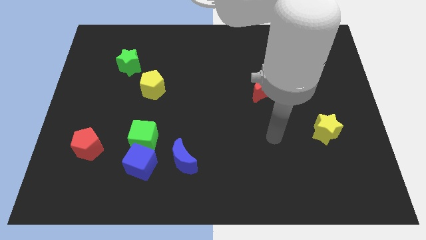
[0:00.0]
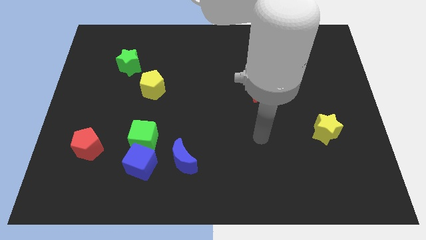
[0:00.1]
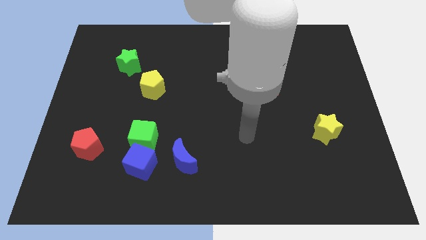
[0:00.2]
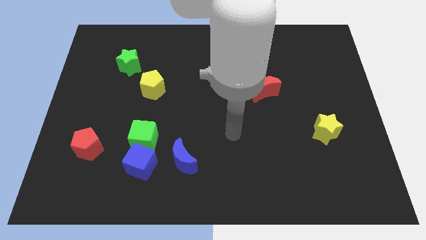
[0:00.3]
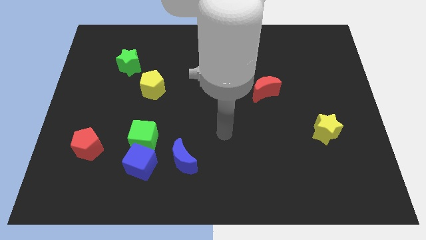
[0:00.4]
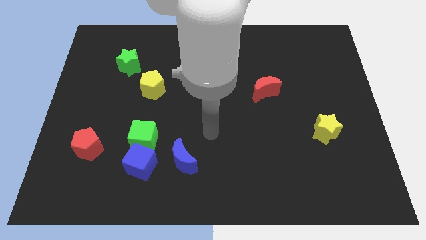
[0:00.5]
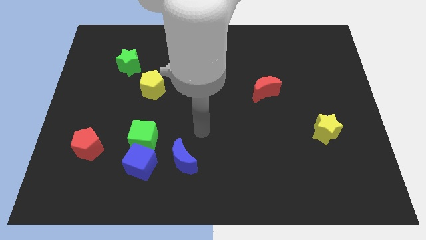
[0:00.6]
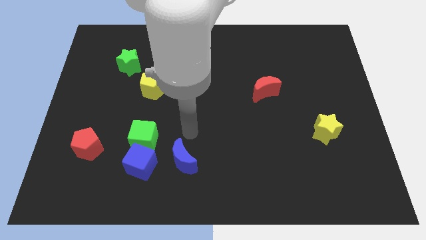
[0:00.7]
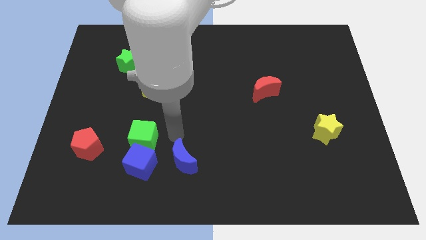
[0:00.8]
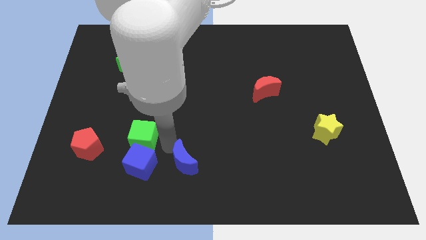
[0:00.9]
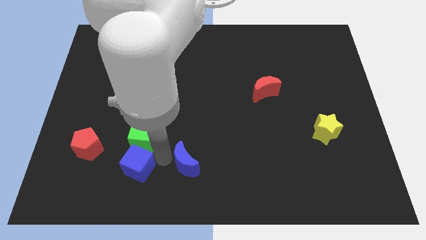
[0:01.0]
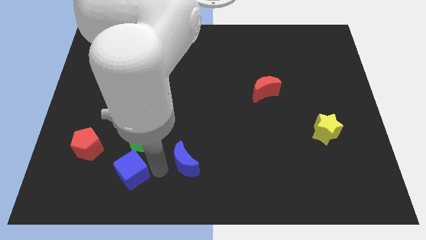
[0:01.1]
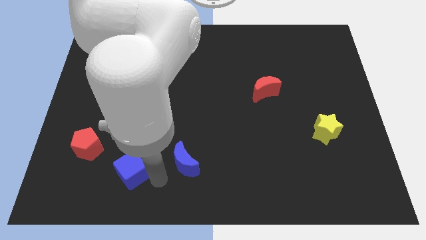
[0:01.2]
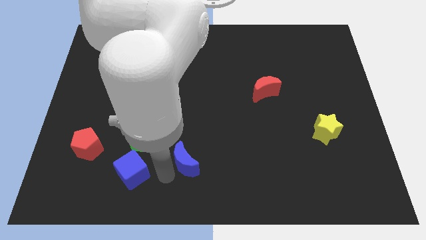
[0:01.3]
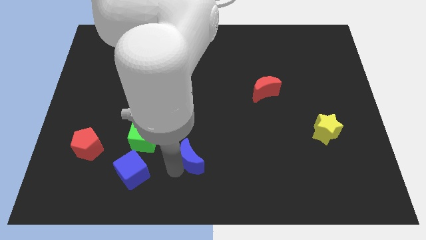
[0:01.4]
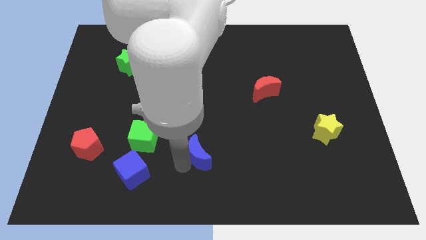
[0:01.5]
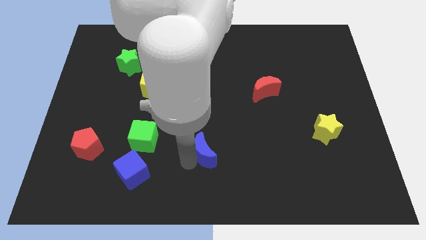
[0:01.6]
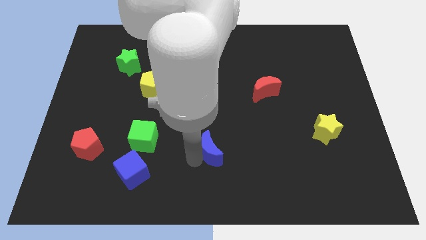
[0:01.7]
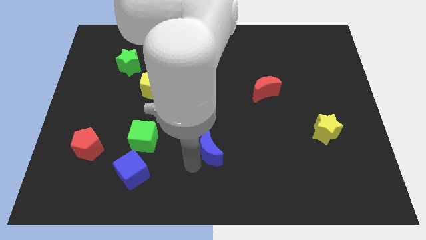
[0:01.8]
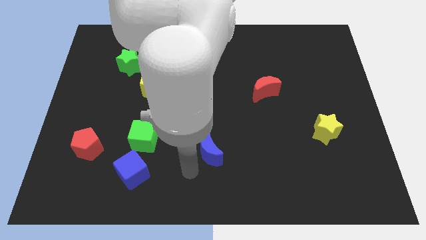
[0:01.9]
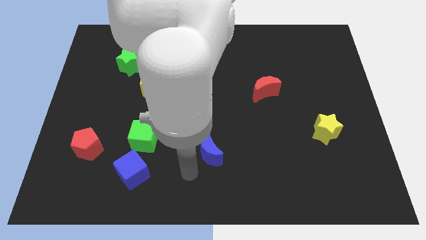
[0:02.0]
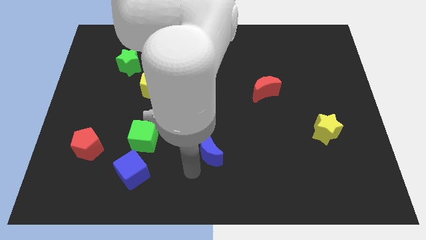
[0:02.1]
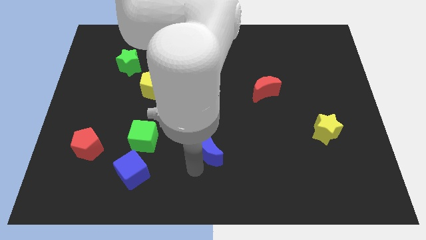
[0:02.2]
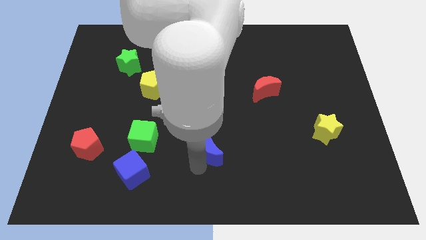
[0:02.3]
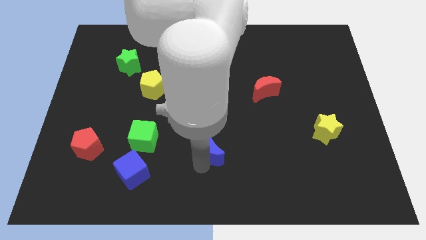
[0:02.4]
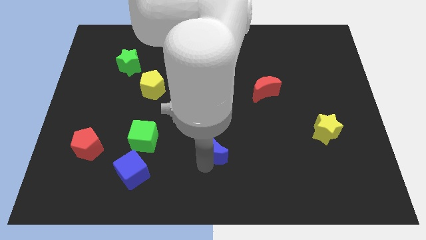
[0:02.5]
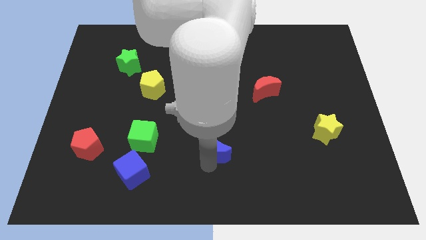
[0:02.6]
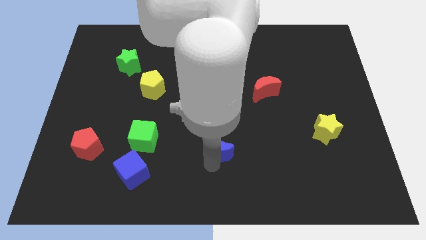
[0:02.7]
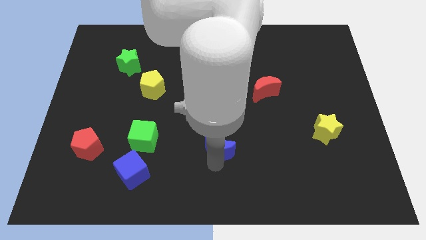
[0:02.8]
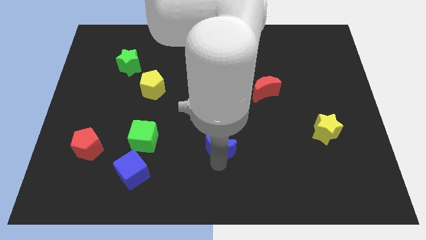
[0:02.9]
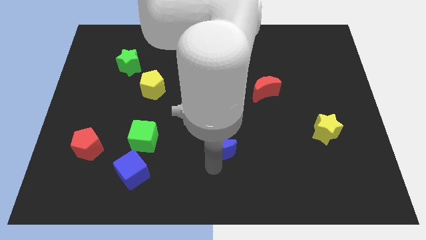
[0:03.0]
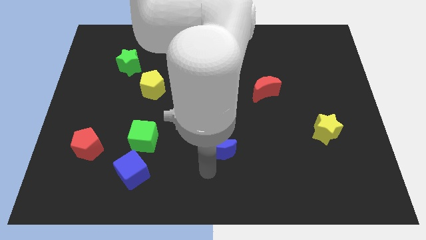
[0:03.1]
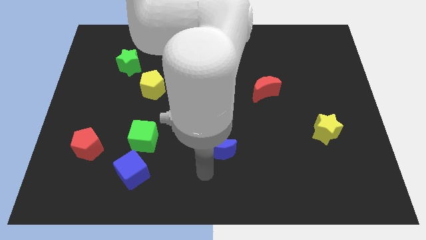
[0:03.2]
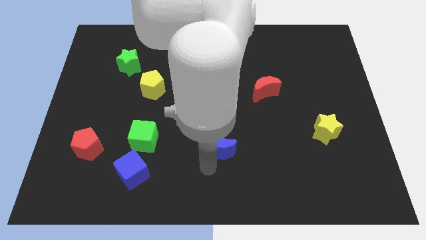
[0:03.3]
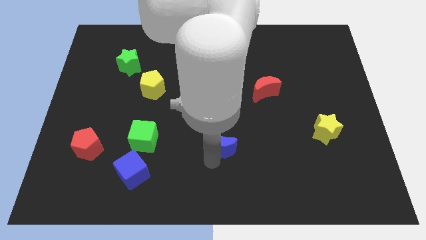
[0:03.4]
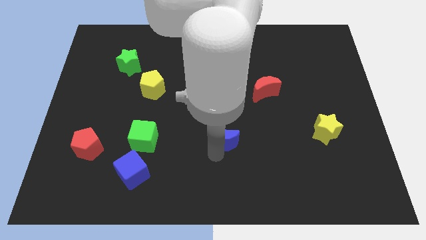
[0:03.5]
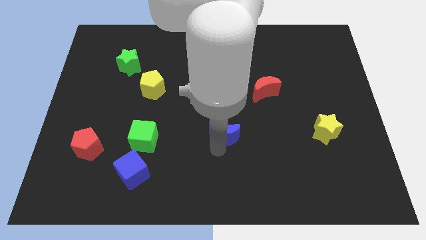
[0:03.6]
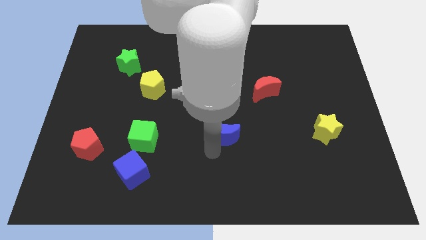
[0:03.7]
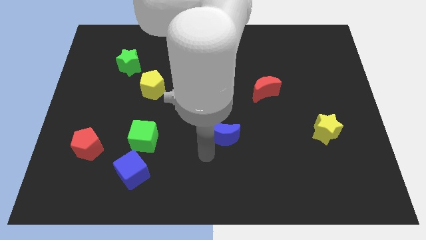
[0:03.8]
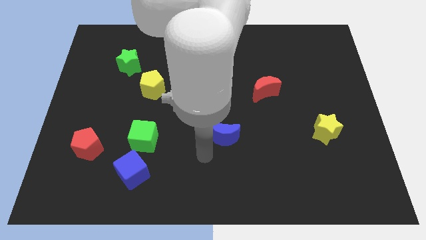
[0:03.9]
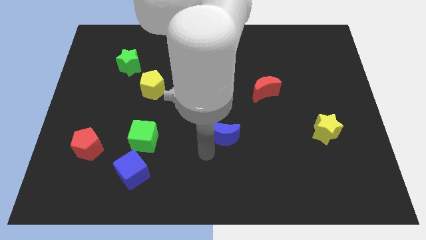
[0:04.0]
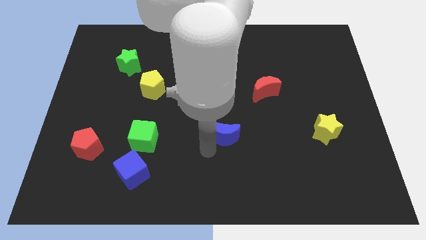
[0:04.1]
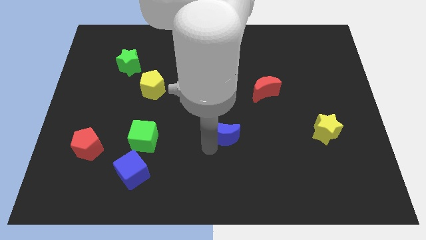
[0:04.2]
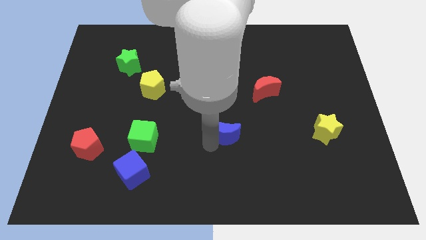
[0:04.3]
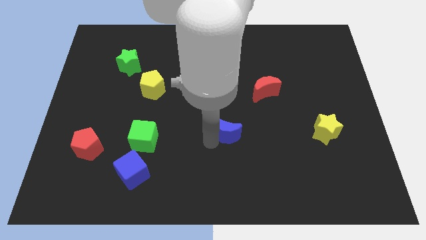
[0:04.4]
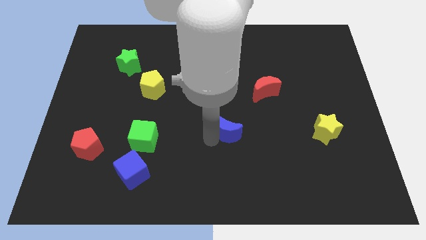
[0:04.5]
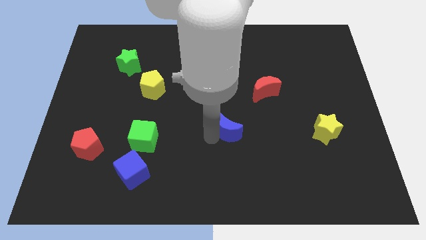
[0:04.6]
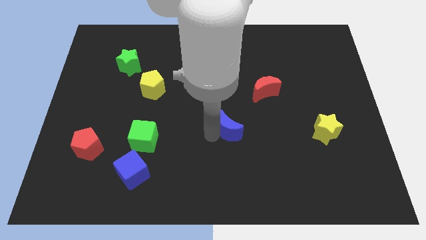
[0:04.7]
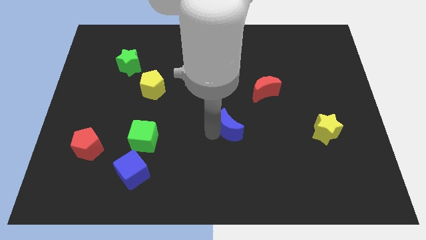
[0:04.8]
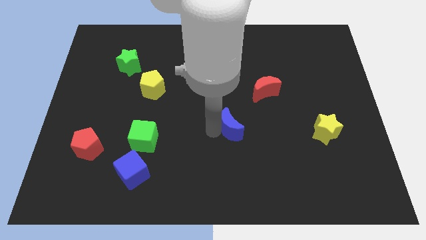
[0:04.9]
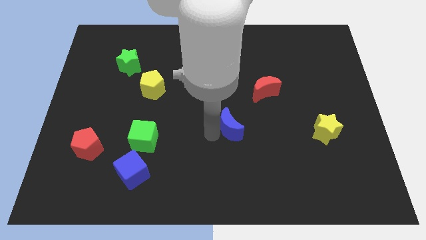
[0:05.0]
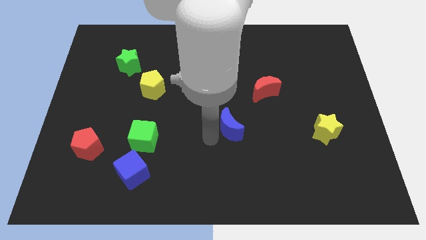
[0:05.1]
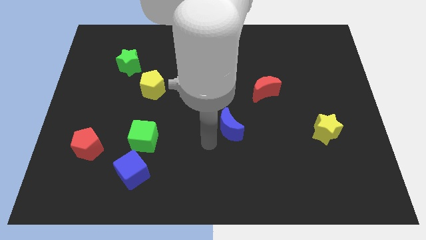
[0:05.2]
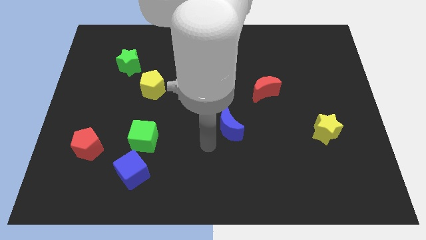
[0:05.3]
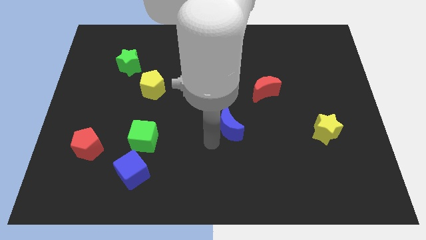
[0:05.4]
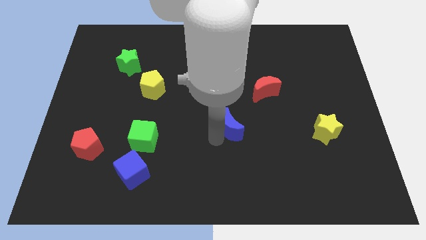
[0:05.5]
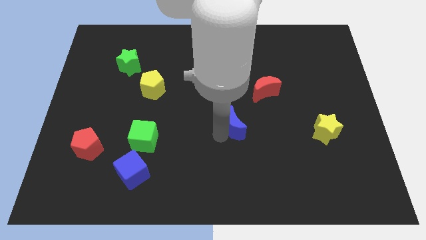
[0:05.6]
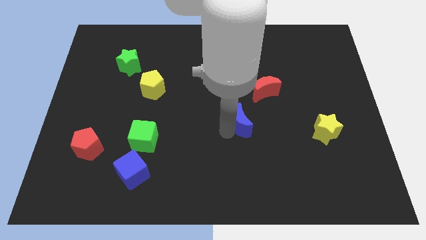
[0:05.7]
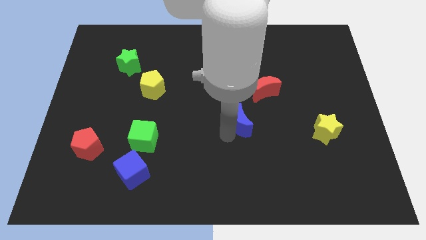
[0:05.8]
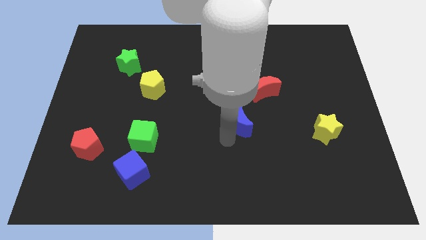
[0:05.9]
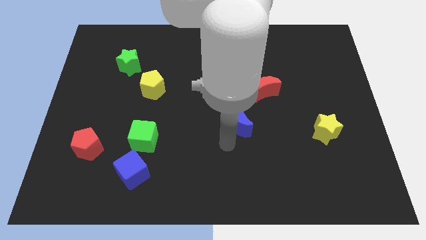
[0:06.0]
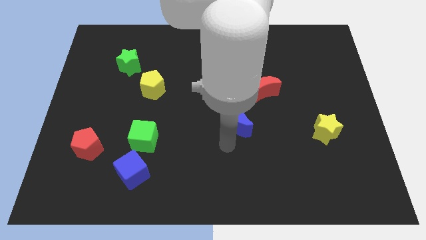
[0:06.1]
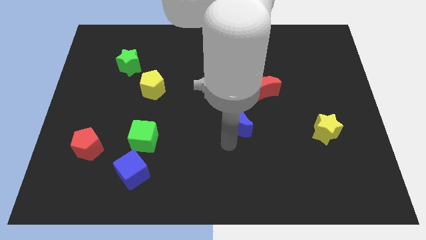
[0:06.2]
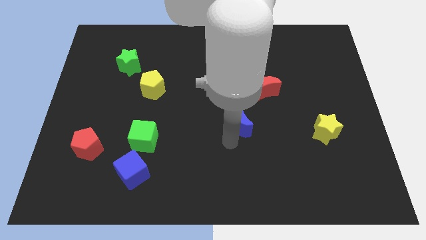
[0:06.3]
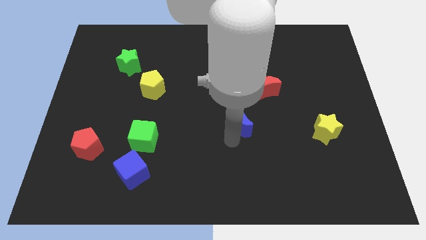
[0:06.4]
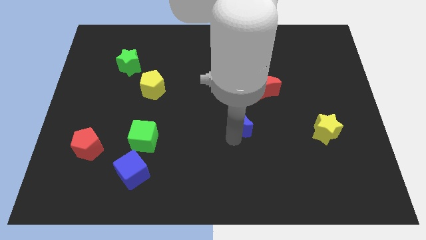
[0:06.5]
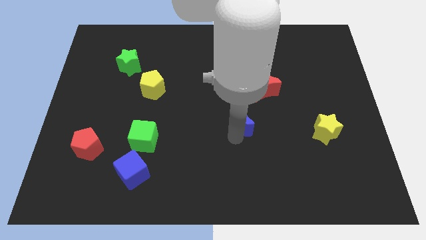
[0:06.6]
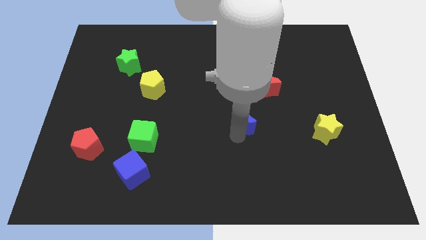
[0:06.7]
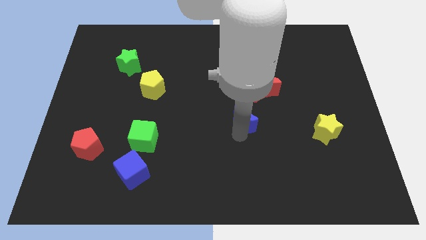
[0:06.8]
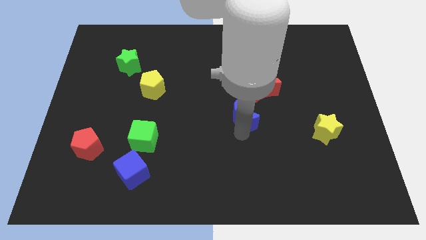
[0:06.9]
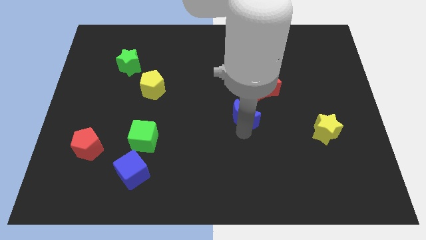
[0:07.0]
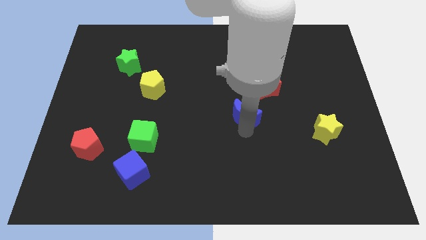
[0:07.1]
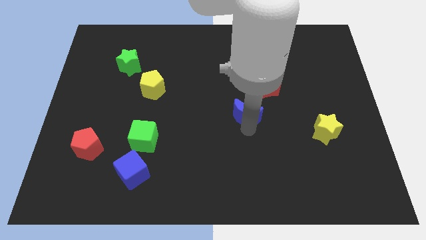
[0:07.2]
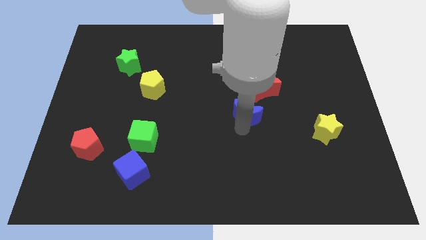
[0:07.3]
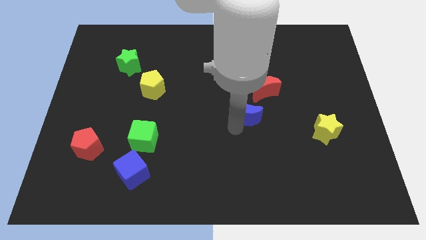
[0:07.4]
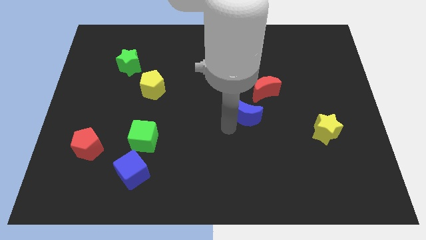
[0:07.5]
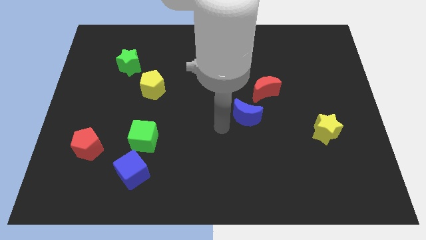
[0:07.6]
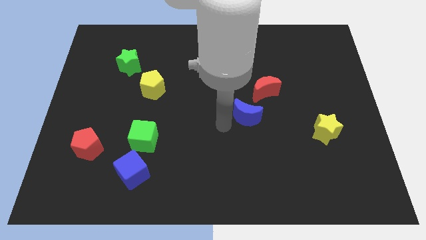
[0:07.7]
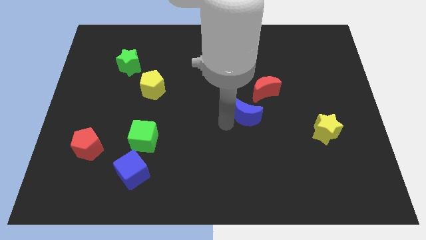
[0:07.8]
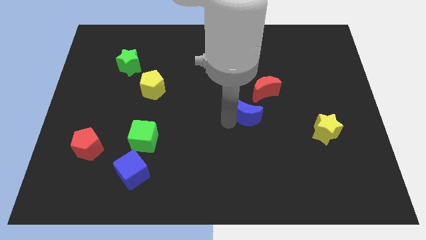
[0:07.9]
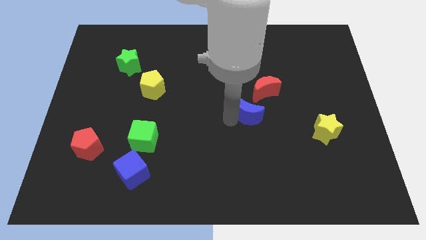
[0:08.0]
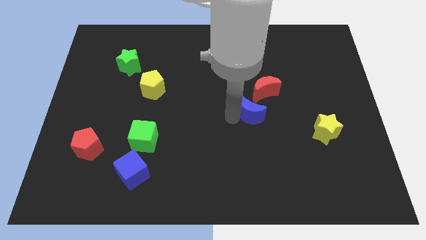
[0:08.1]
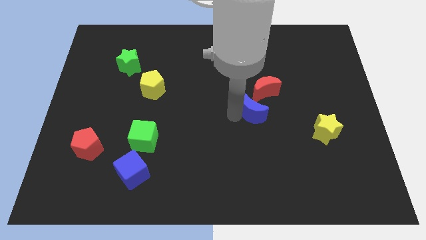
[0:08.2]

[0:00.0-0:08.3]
move the blue moon upwards and then right
